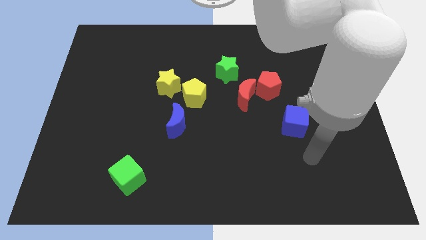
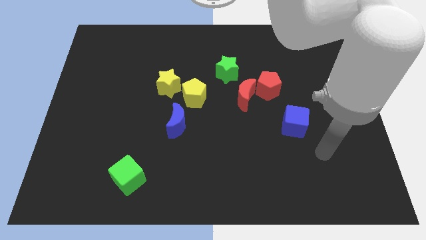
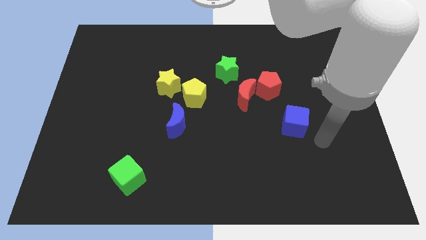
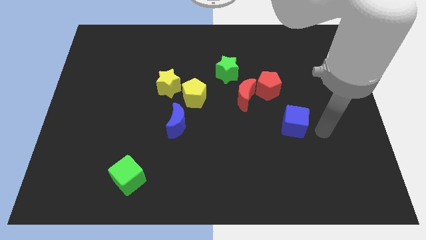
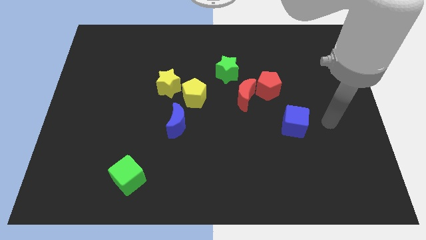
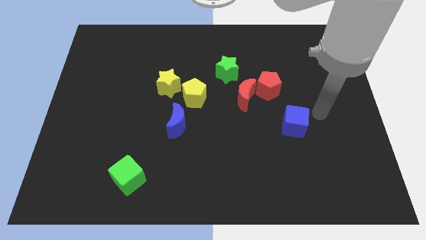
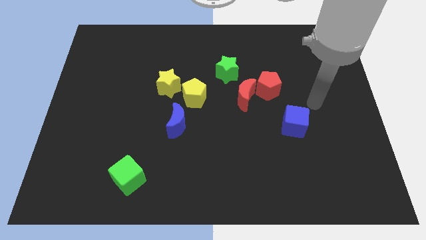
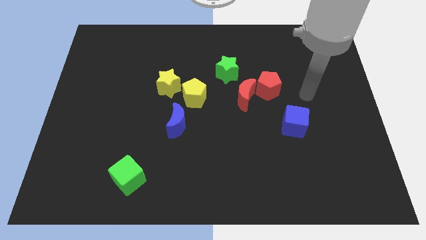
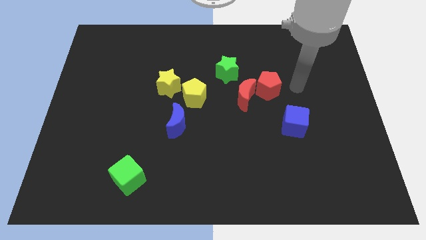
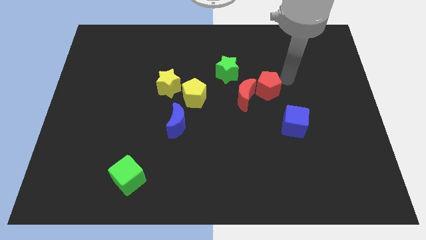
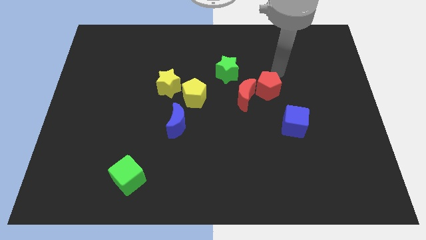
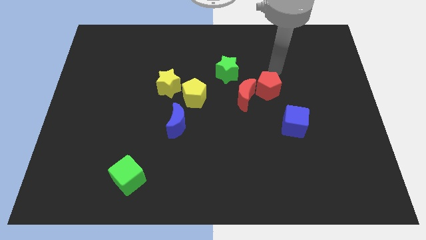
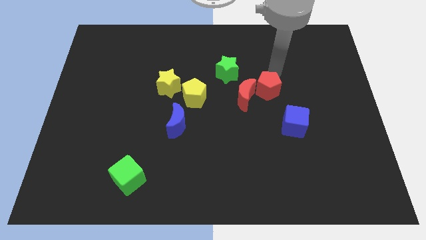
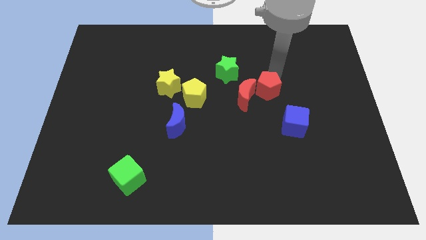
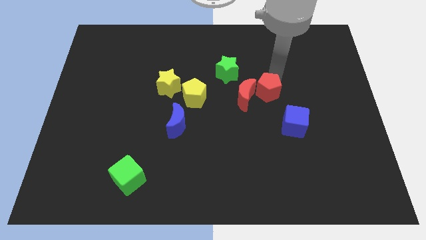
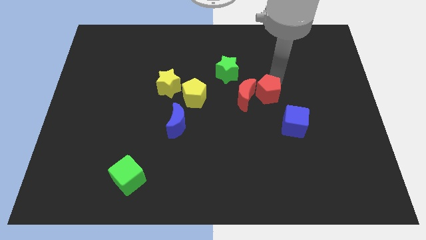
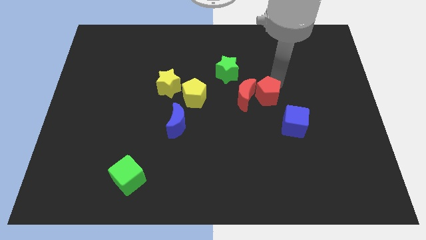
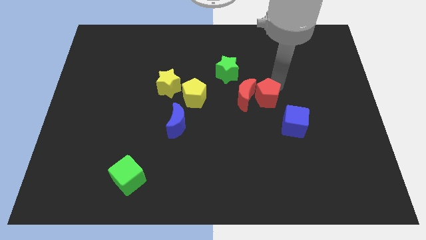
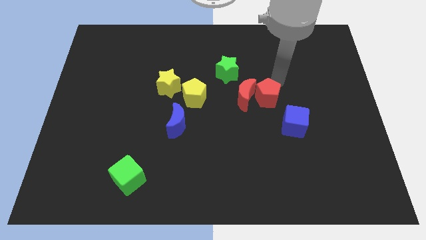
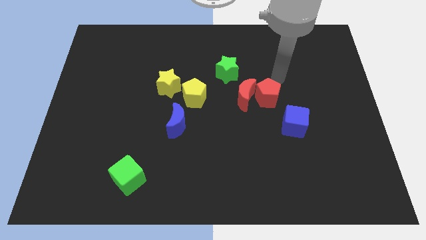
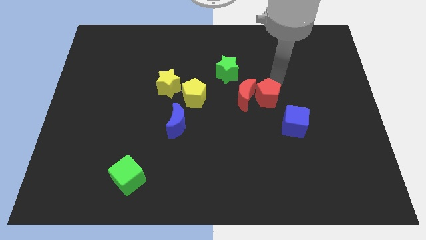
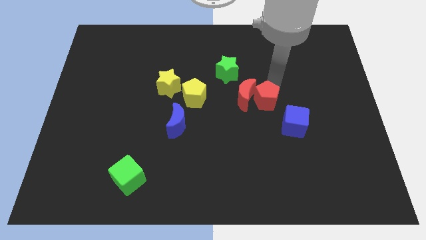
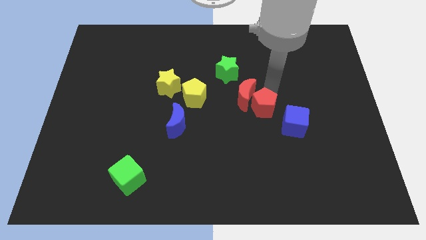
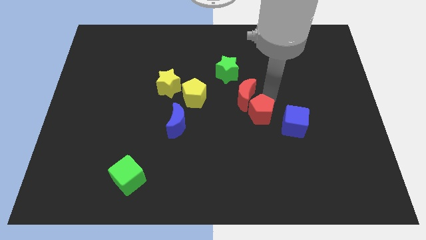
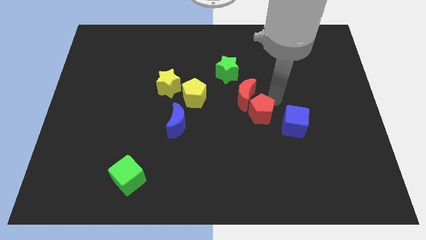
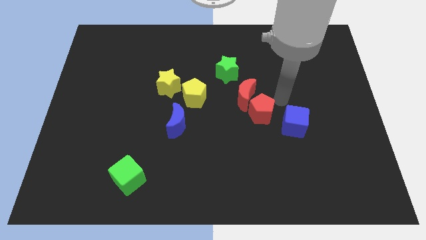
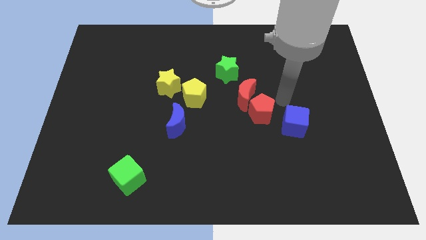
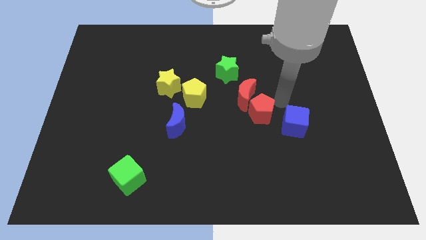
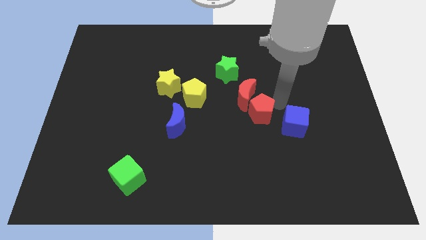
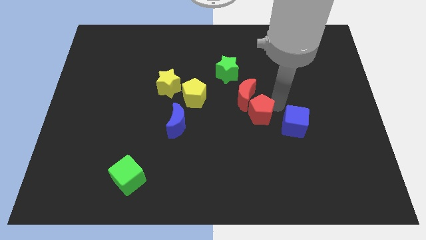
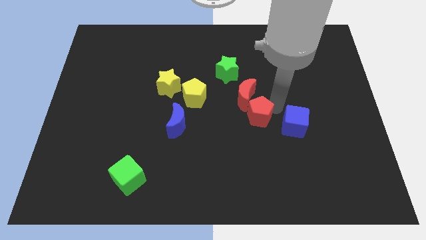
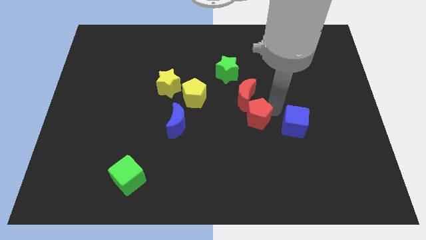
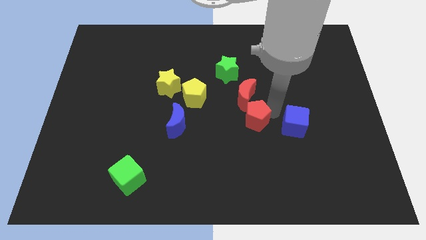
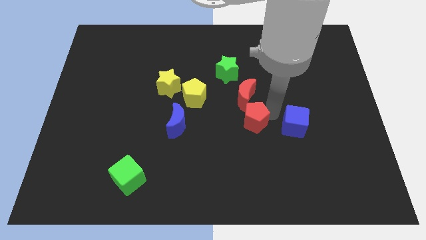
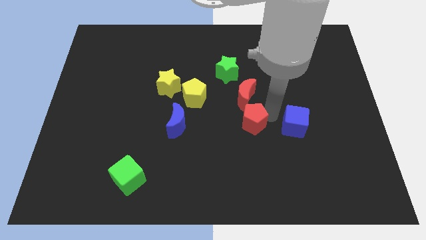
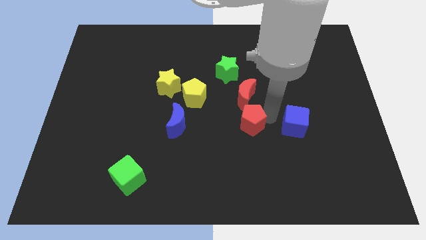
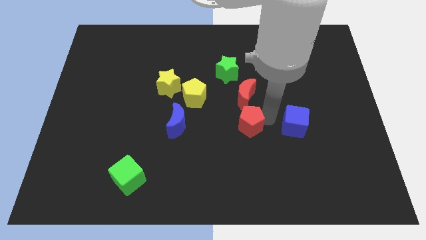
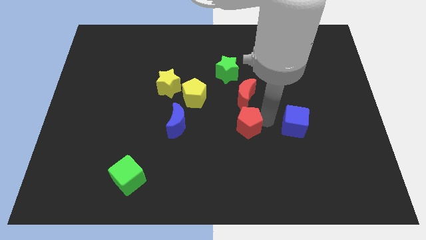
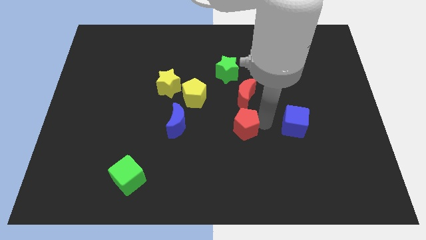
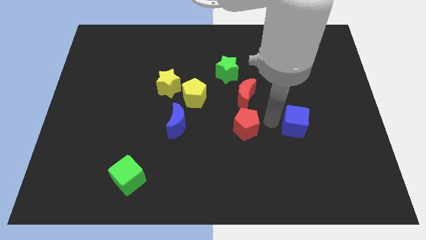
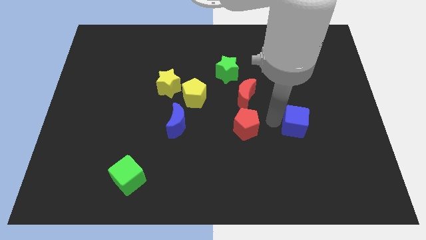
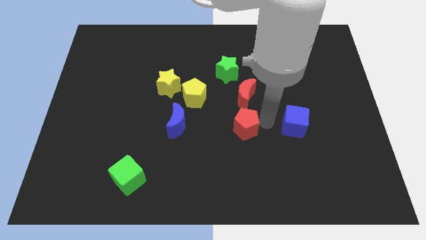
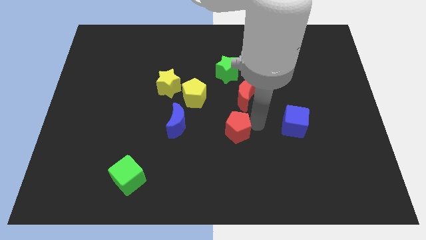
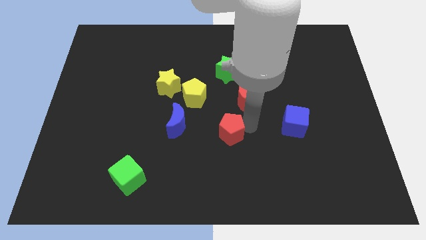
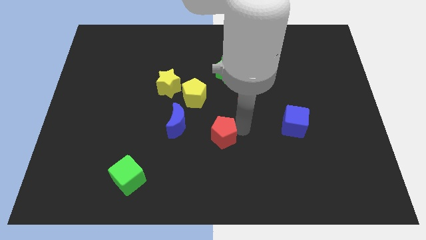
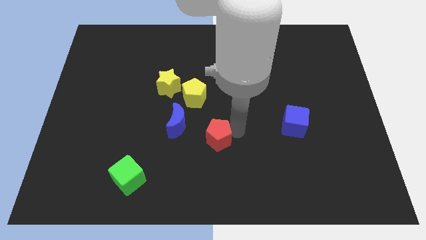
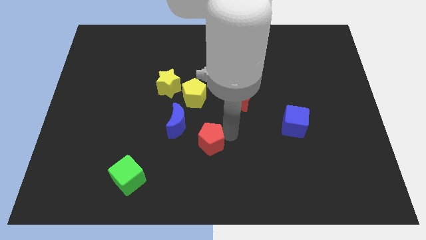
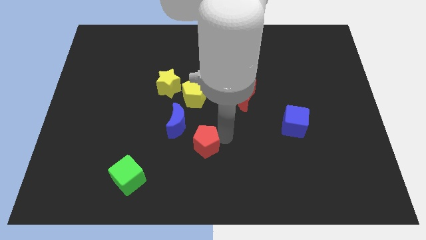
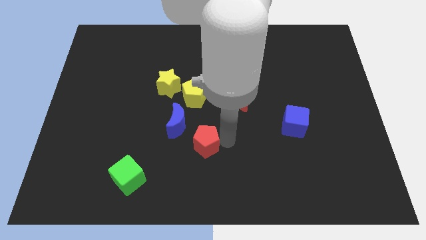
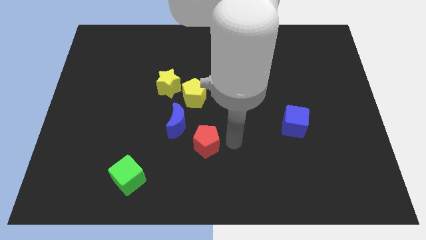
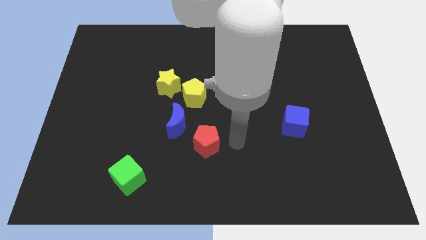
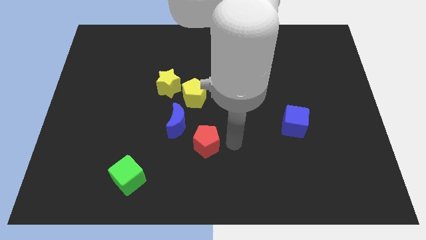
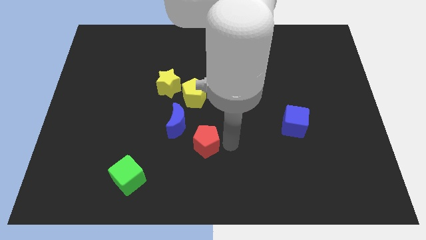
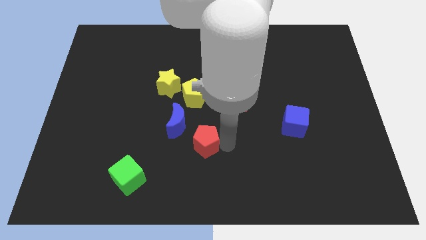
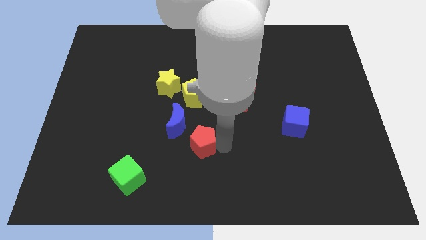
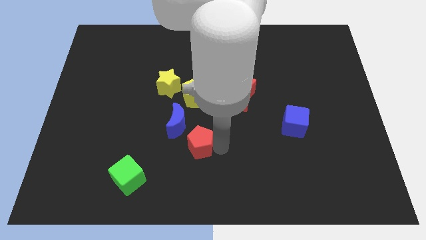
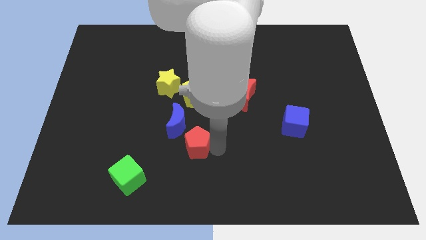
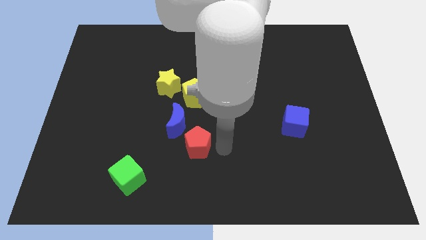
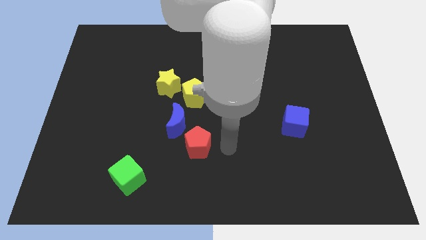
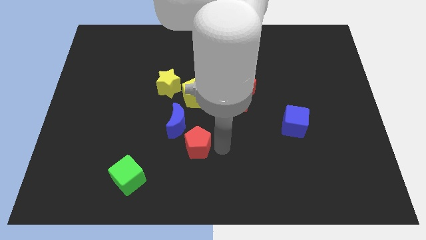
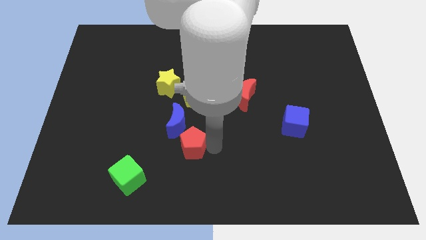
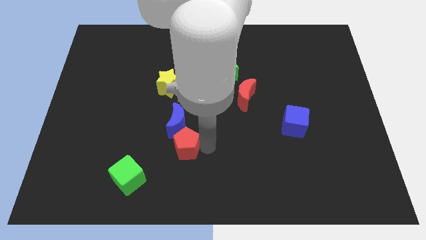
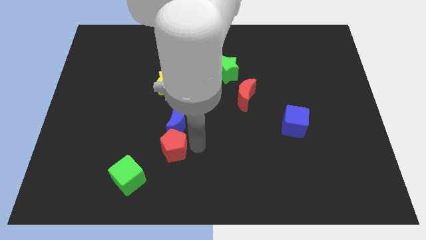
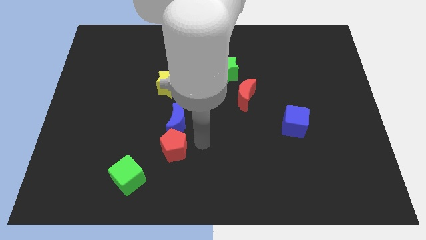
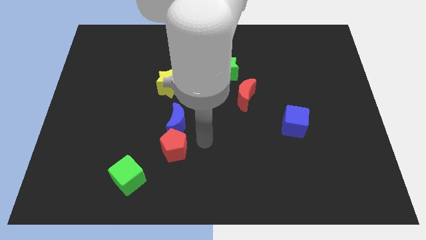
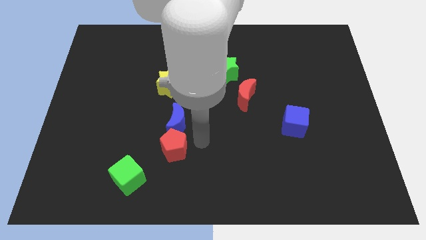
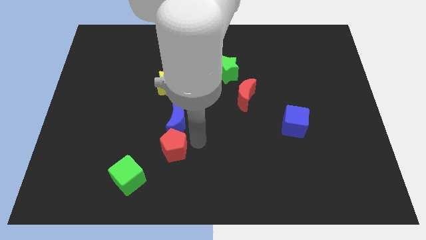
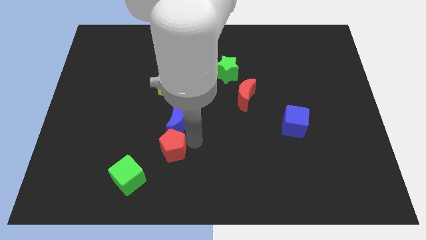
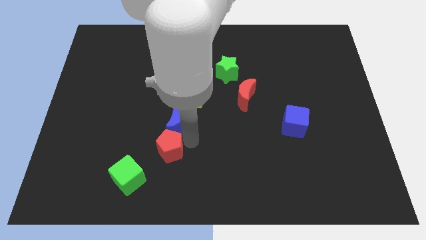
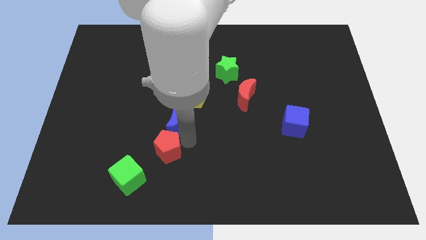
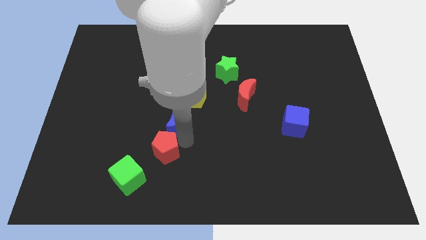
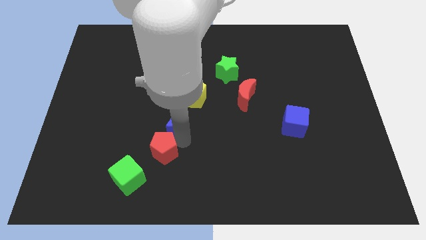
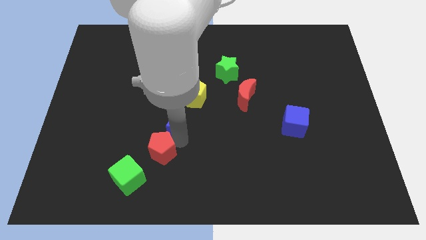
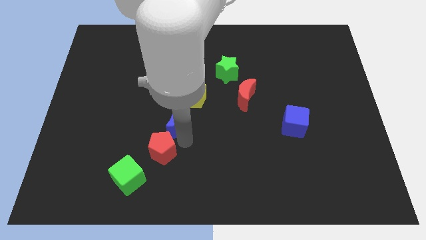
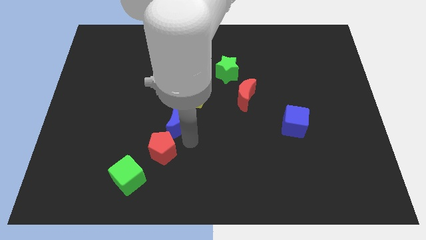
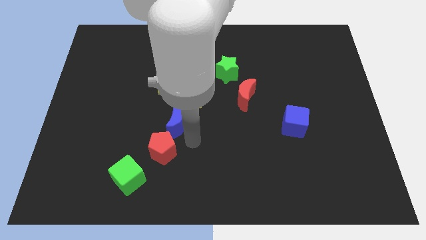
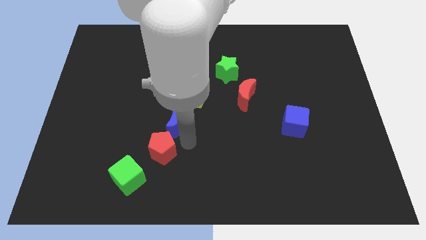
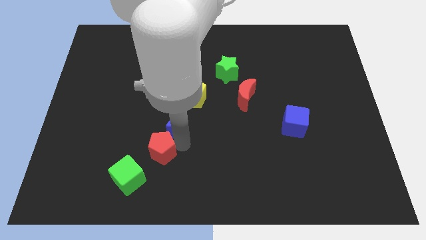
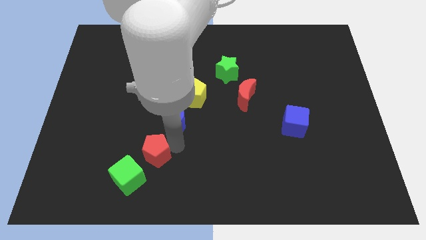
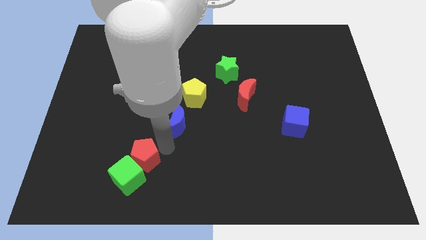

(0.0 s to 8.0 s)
put the red pentagon close to the green cube
